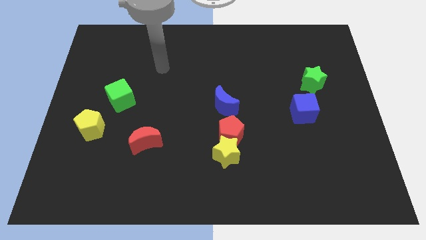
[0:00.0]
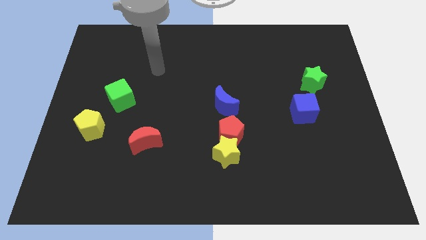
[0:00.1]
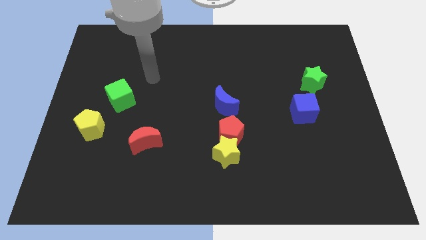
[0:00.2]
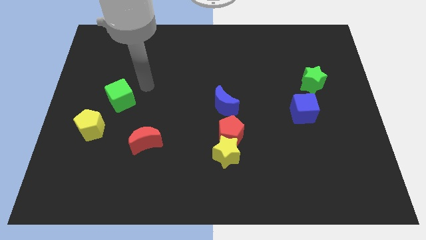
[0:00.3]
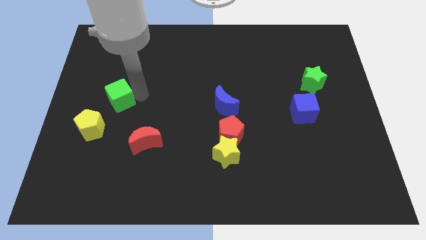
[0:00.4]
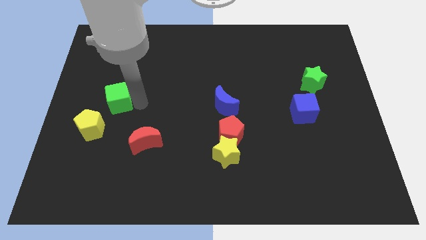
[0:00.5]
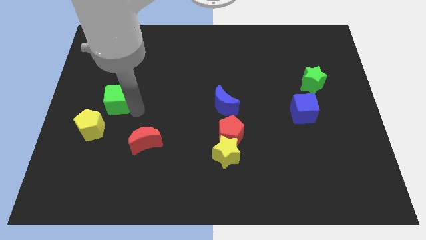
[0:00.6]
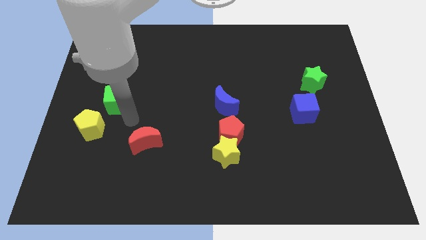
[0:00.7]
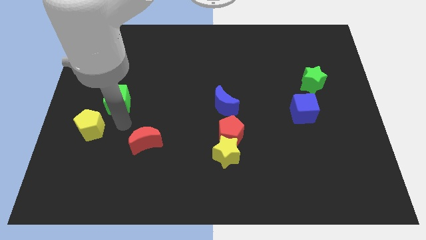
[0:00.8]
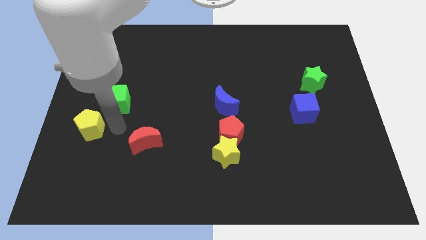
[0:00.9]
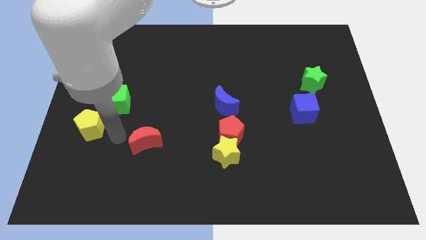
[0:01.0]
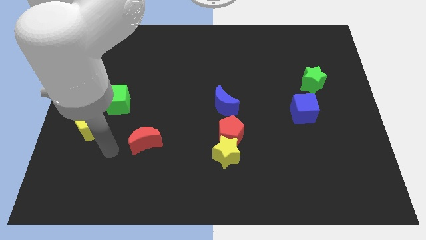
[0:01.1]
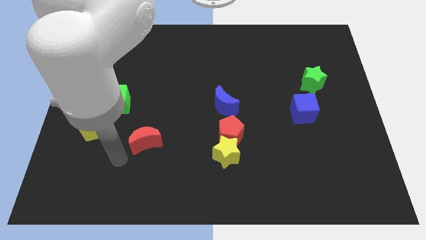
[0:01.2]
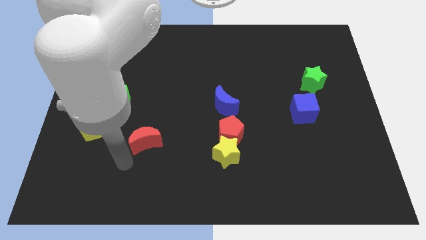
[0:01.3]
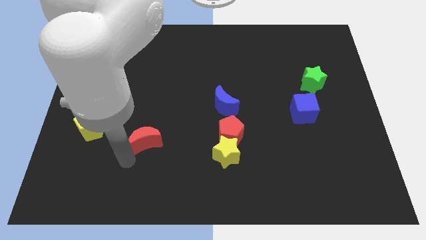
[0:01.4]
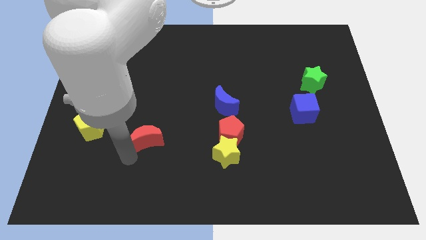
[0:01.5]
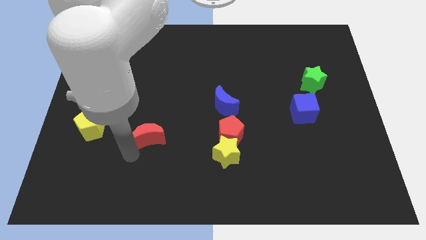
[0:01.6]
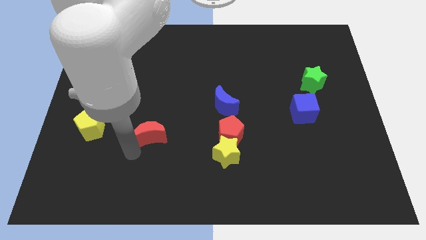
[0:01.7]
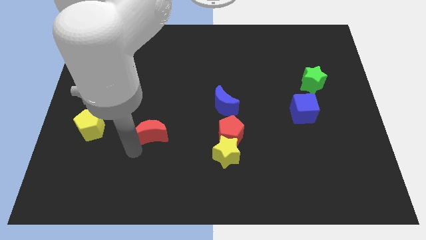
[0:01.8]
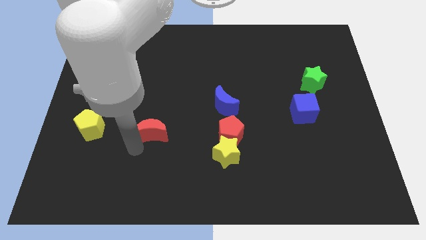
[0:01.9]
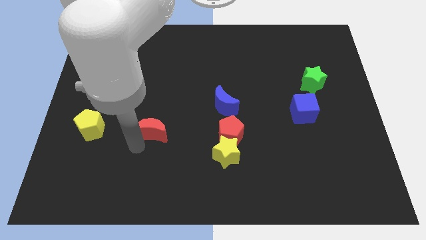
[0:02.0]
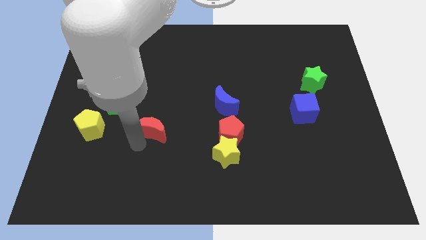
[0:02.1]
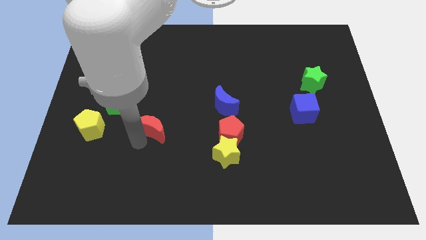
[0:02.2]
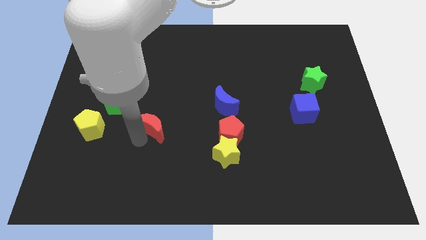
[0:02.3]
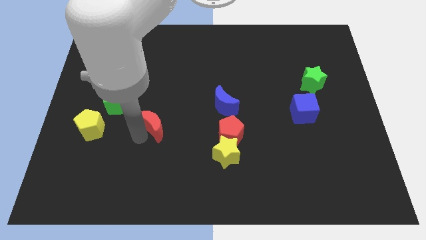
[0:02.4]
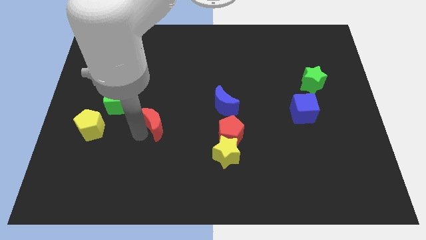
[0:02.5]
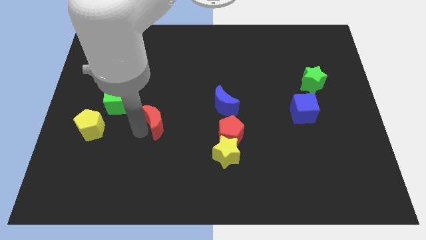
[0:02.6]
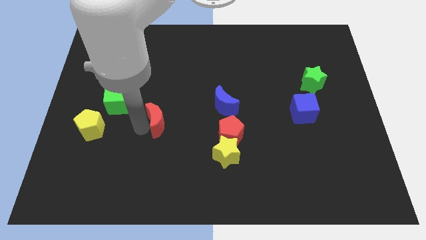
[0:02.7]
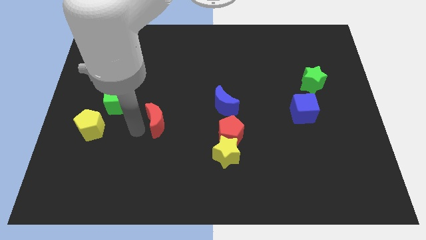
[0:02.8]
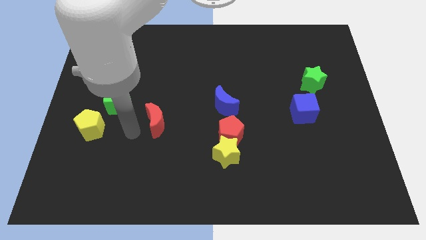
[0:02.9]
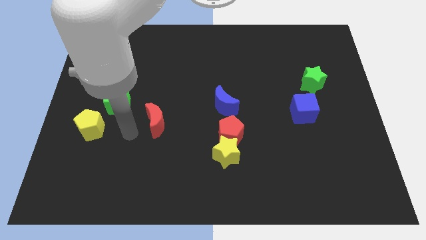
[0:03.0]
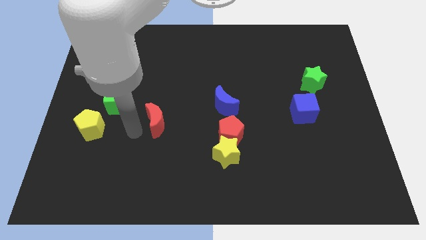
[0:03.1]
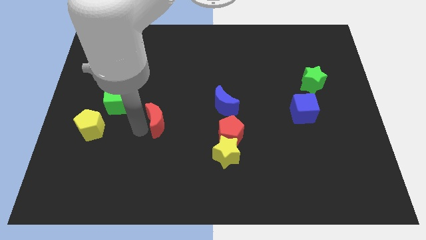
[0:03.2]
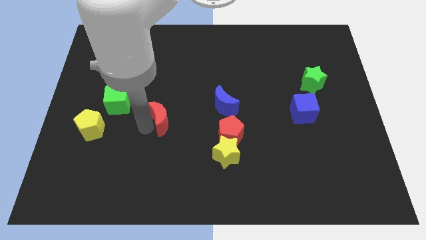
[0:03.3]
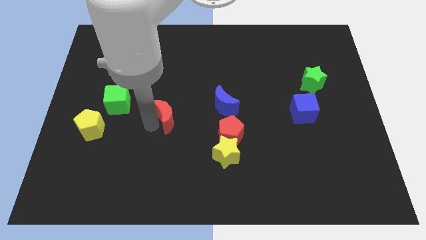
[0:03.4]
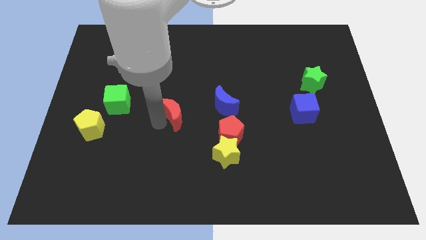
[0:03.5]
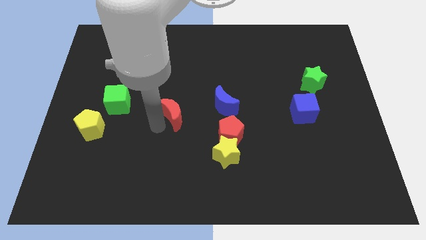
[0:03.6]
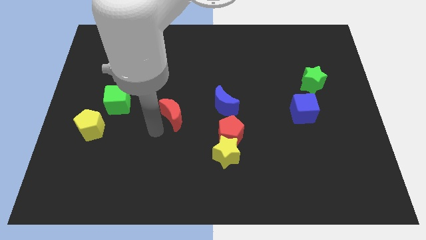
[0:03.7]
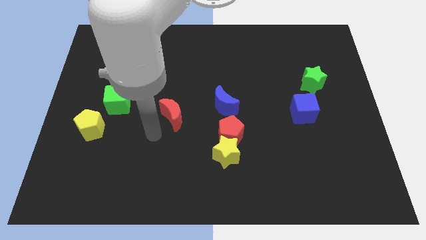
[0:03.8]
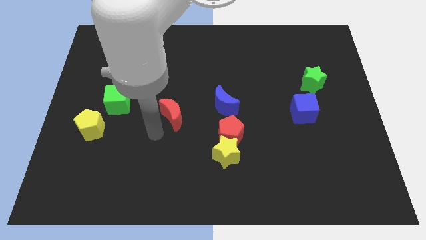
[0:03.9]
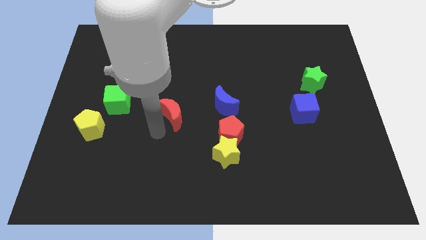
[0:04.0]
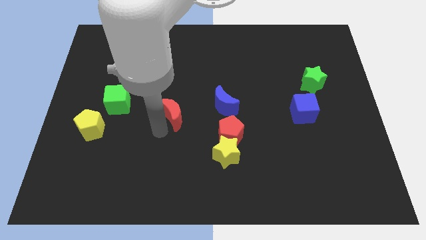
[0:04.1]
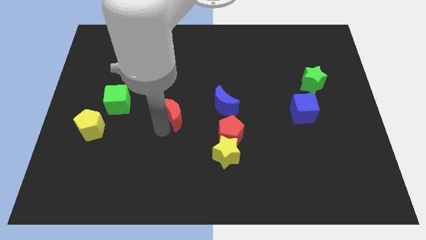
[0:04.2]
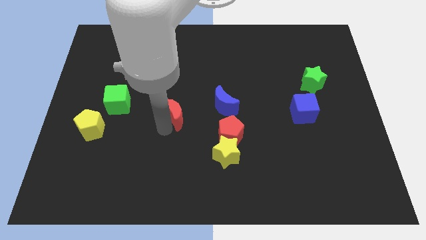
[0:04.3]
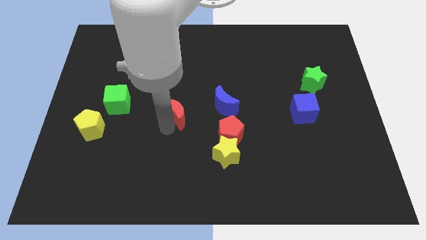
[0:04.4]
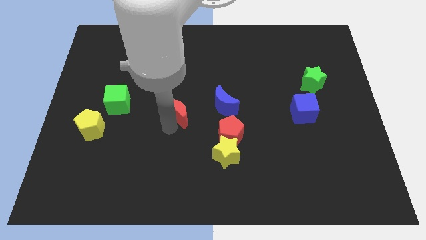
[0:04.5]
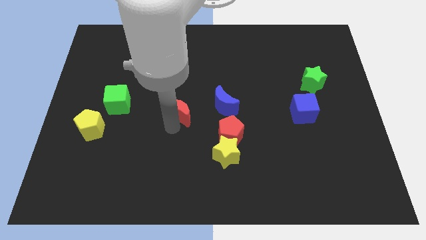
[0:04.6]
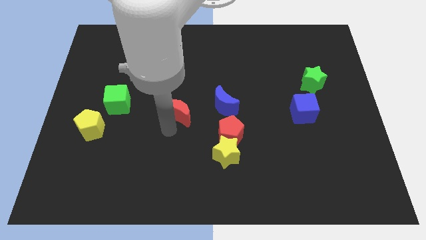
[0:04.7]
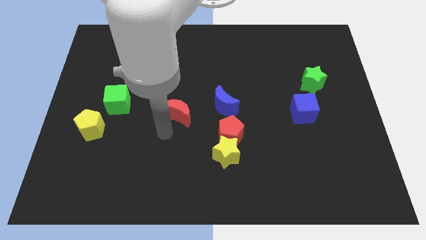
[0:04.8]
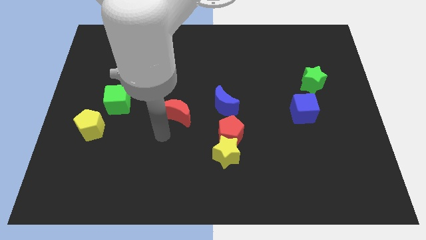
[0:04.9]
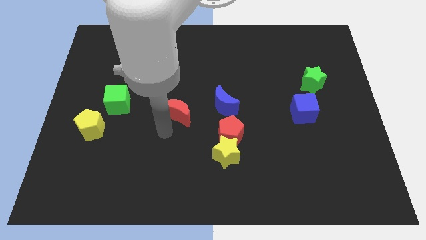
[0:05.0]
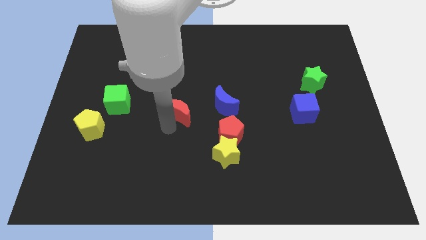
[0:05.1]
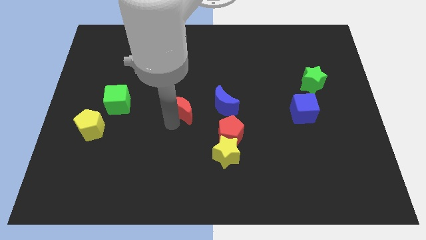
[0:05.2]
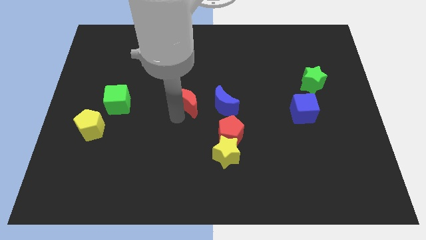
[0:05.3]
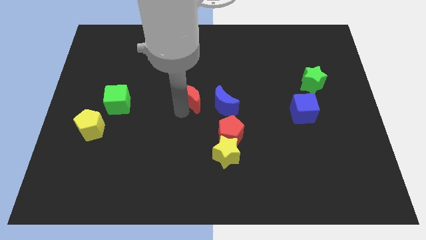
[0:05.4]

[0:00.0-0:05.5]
put the red moon to the top left of the blue moon

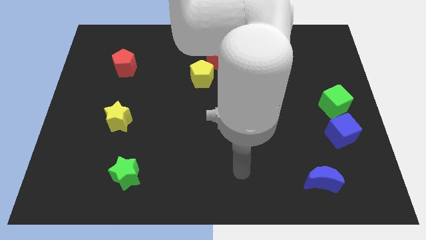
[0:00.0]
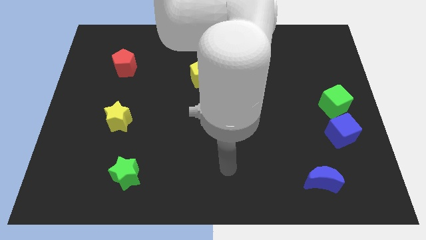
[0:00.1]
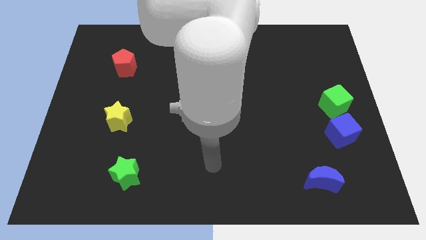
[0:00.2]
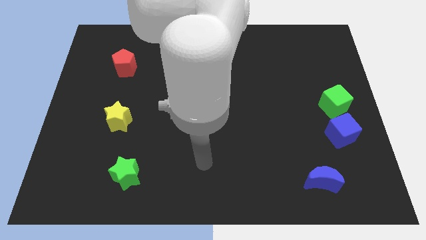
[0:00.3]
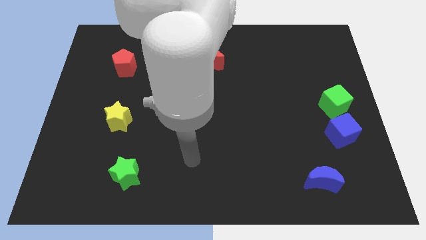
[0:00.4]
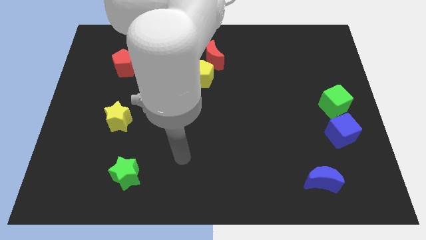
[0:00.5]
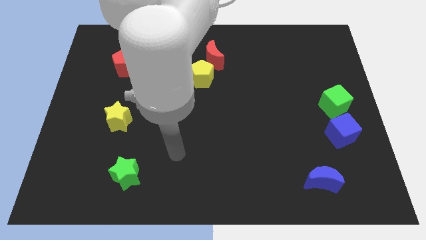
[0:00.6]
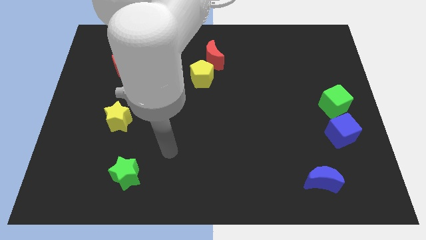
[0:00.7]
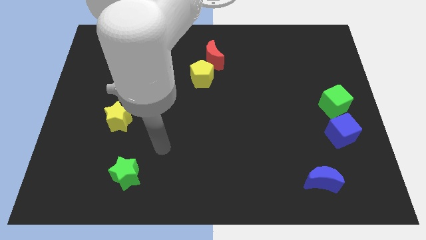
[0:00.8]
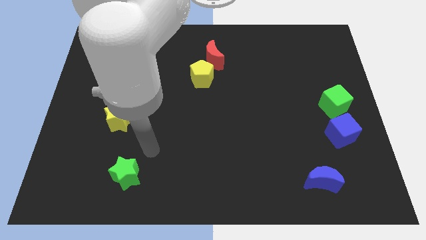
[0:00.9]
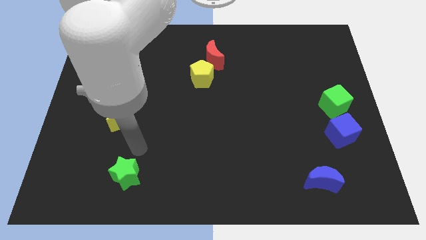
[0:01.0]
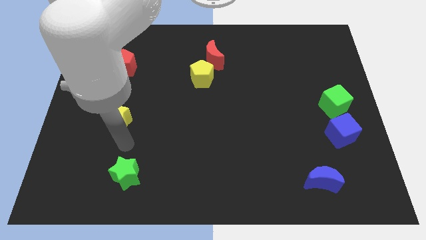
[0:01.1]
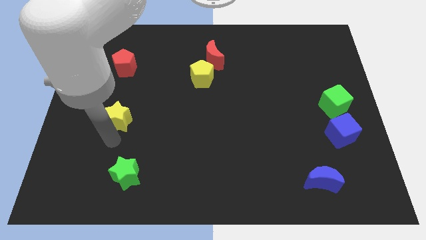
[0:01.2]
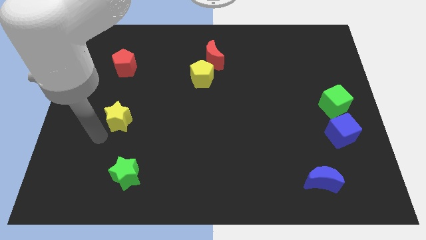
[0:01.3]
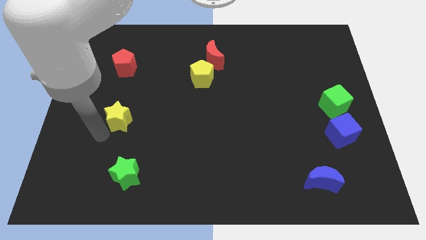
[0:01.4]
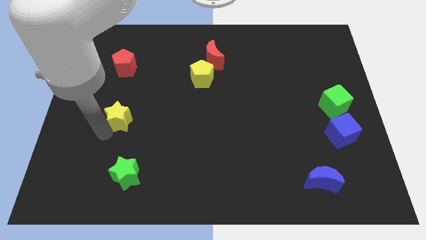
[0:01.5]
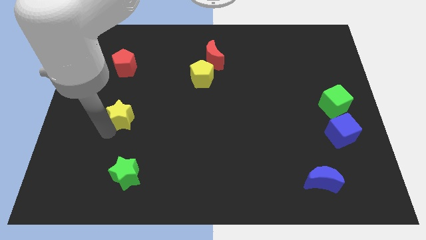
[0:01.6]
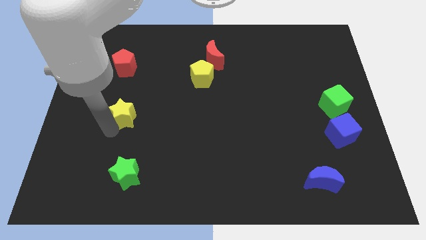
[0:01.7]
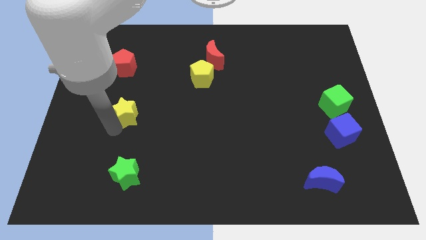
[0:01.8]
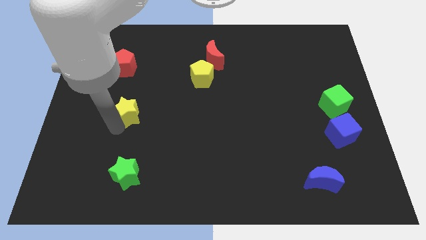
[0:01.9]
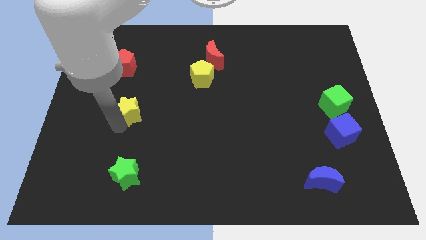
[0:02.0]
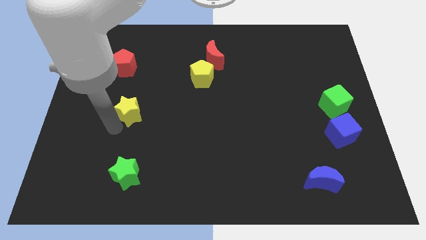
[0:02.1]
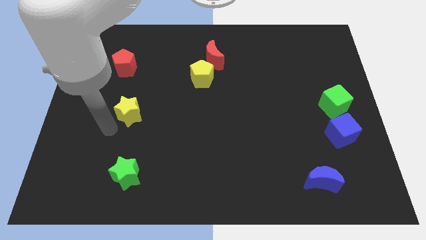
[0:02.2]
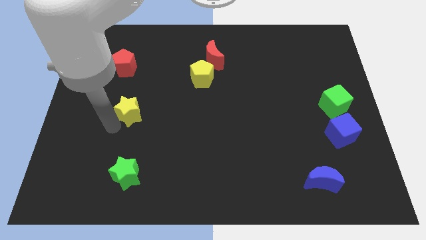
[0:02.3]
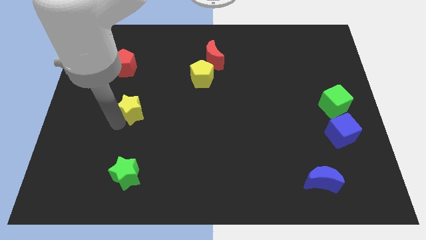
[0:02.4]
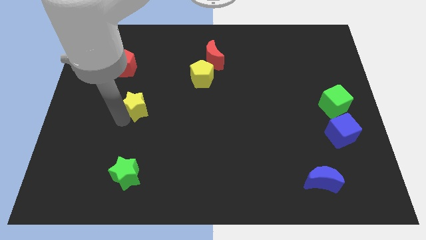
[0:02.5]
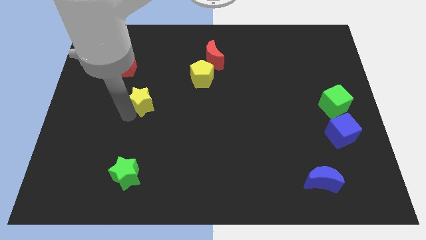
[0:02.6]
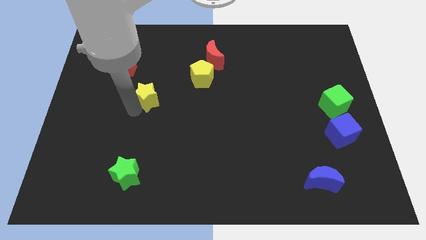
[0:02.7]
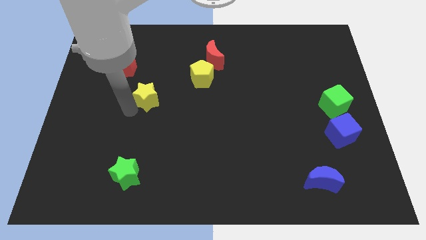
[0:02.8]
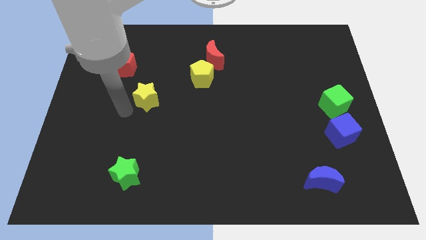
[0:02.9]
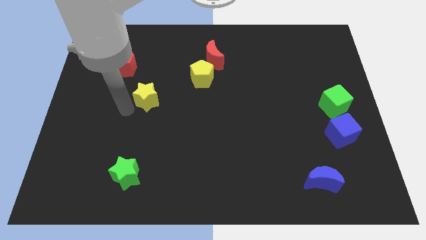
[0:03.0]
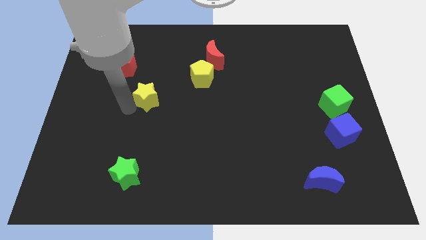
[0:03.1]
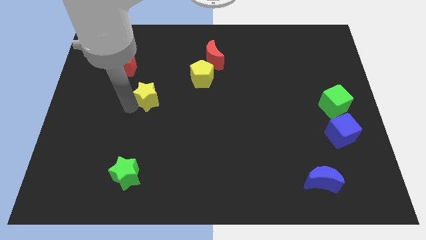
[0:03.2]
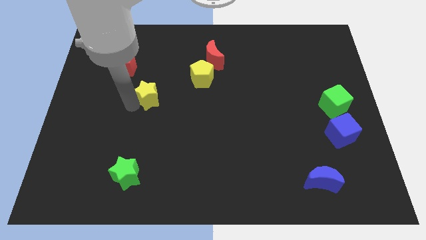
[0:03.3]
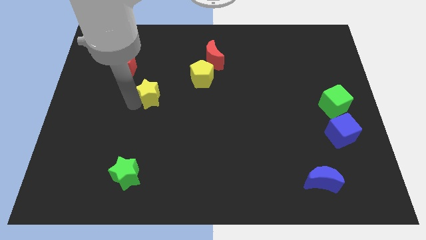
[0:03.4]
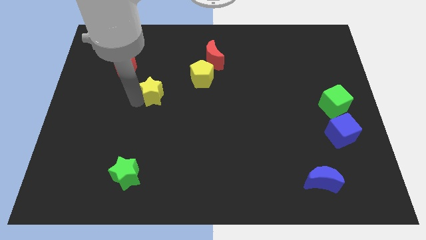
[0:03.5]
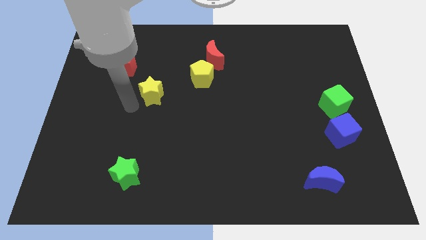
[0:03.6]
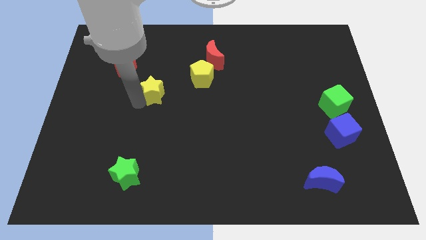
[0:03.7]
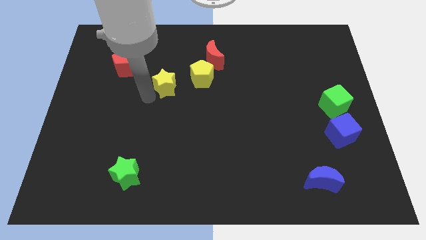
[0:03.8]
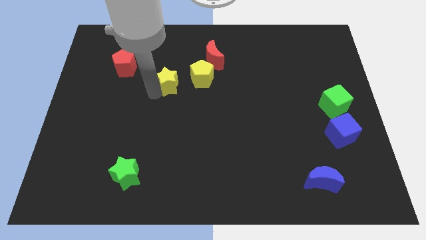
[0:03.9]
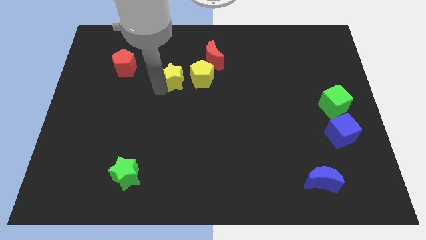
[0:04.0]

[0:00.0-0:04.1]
push the yellow star to the bottom left of the red moon
